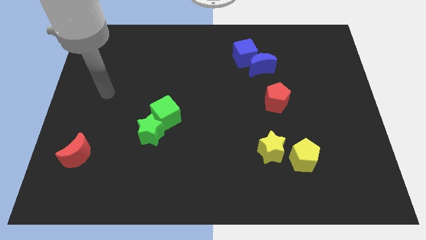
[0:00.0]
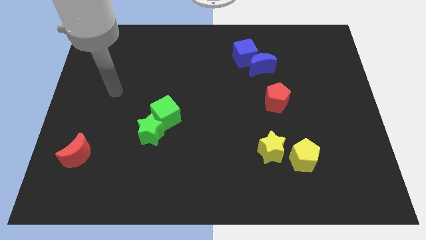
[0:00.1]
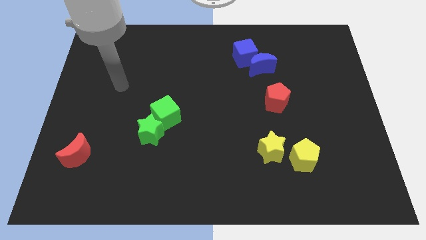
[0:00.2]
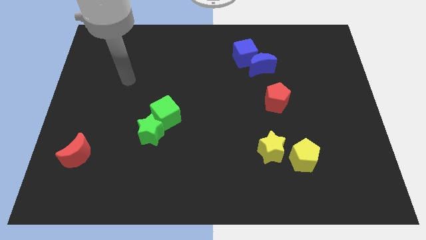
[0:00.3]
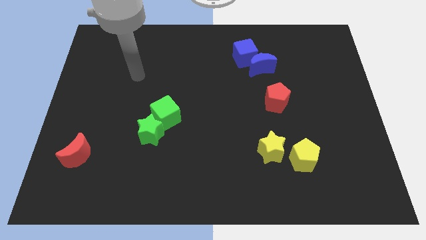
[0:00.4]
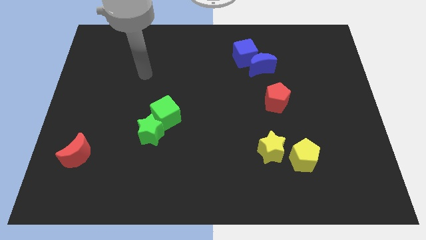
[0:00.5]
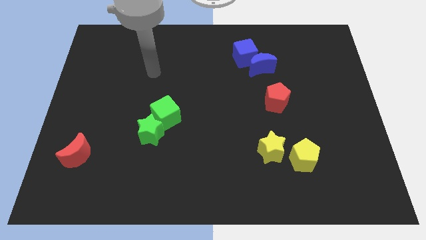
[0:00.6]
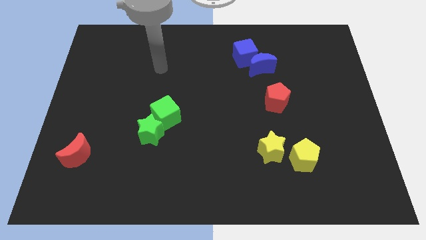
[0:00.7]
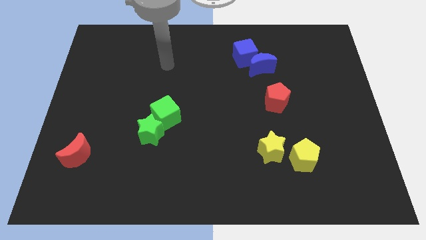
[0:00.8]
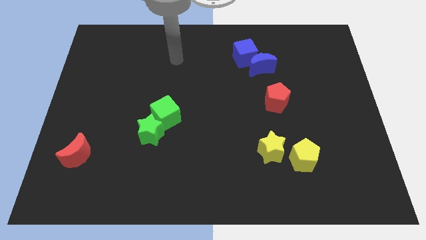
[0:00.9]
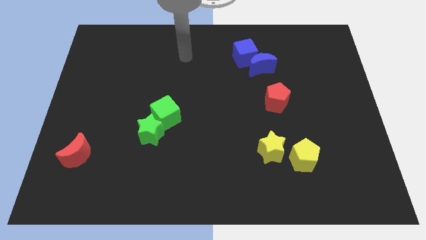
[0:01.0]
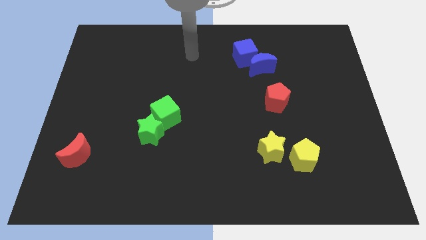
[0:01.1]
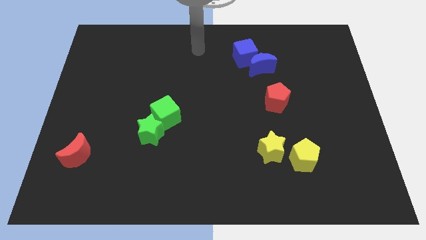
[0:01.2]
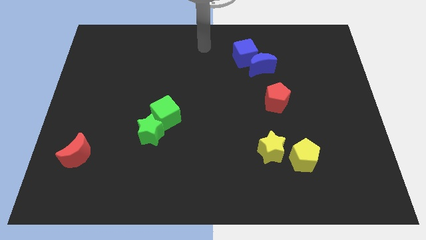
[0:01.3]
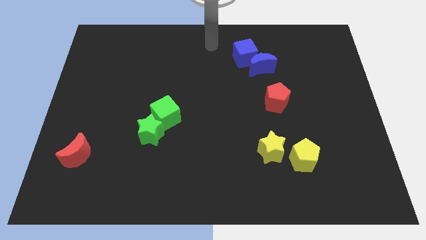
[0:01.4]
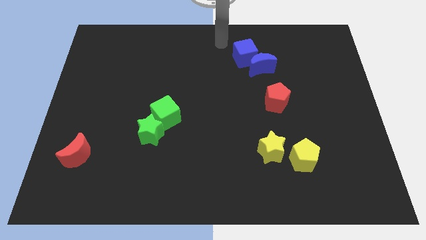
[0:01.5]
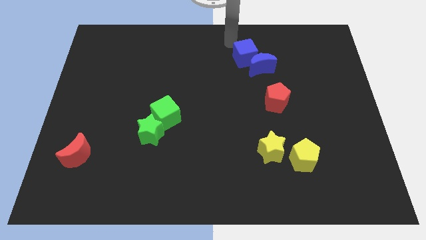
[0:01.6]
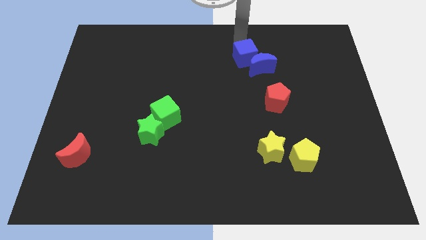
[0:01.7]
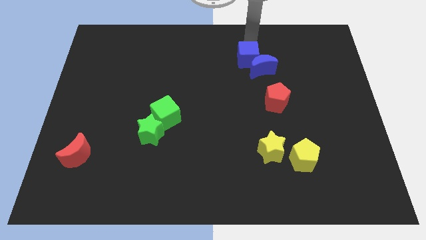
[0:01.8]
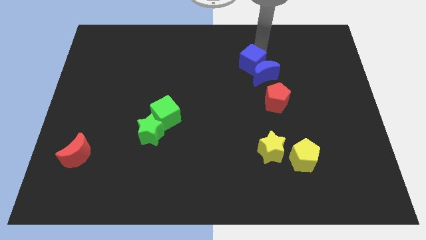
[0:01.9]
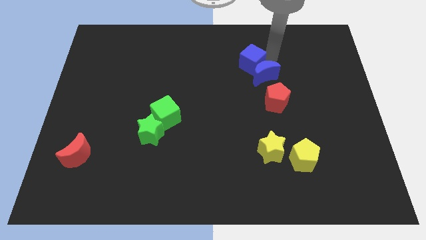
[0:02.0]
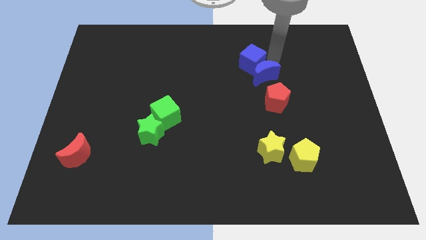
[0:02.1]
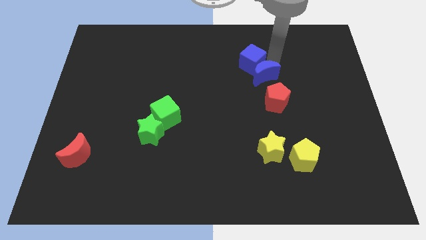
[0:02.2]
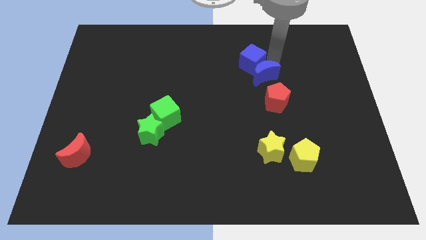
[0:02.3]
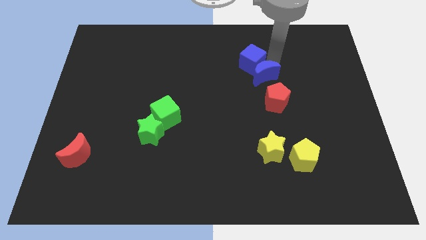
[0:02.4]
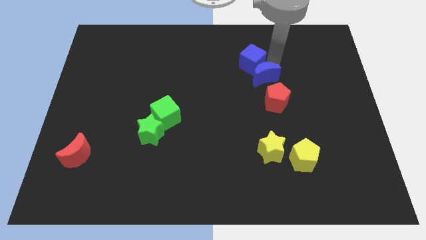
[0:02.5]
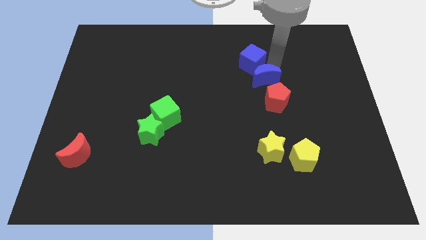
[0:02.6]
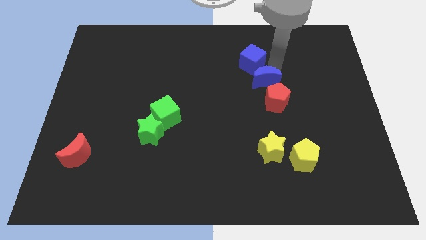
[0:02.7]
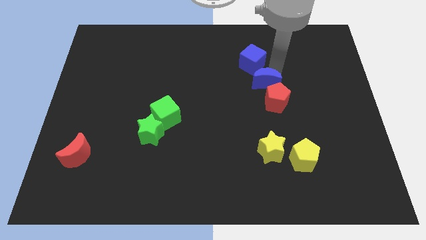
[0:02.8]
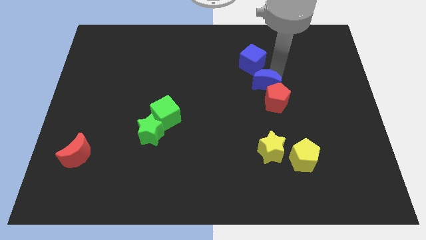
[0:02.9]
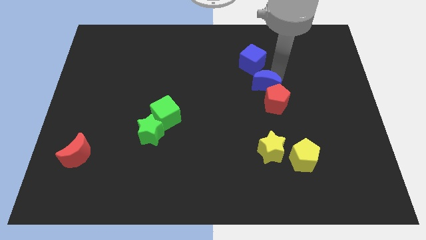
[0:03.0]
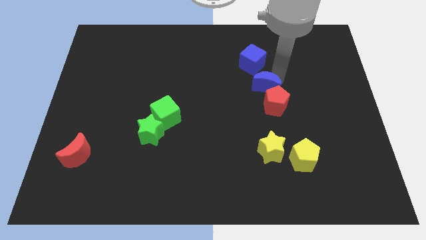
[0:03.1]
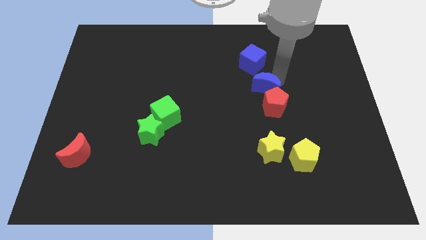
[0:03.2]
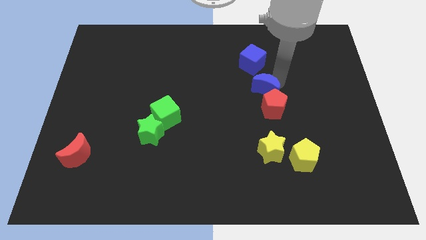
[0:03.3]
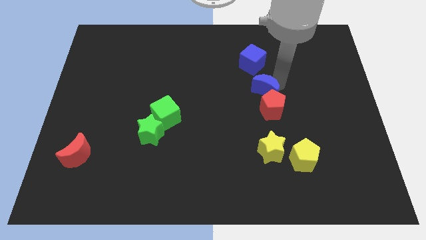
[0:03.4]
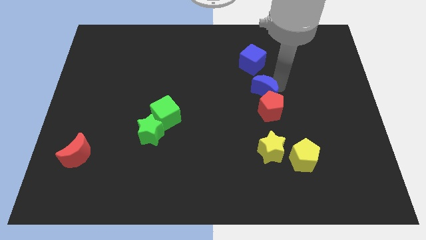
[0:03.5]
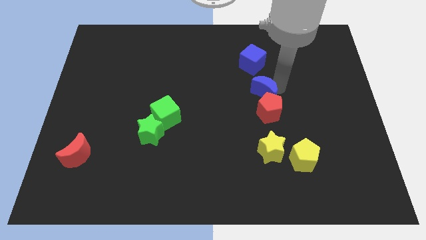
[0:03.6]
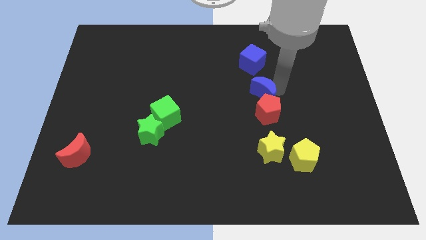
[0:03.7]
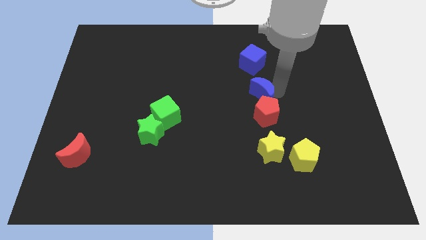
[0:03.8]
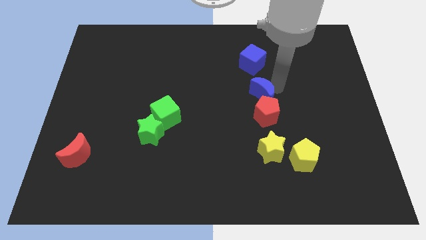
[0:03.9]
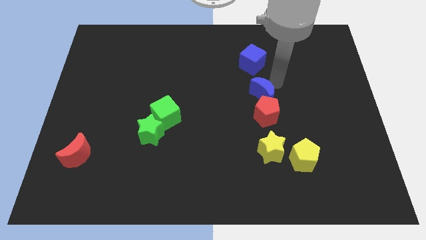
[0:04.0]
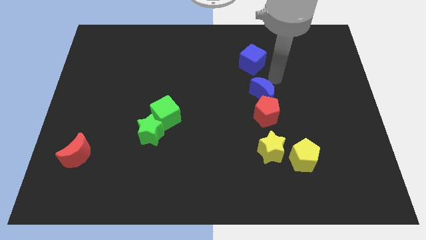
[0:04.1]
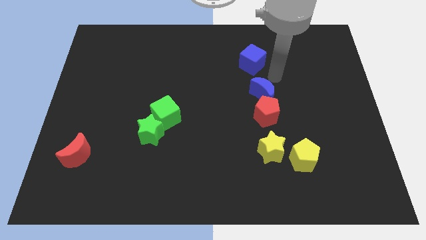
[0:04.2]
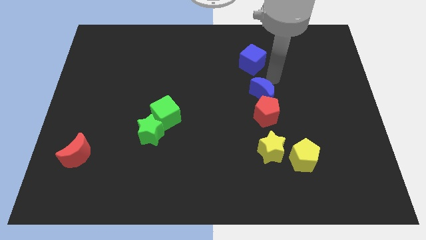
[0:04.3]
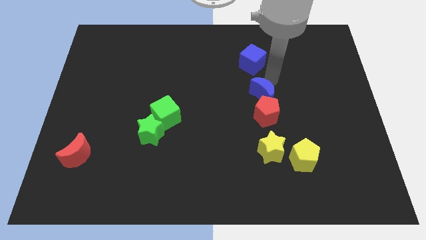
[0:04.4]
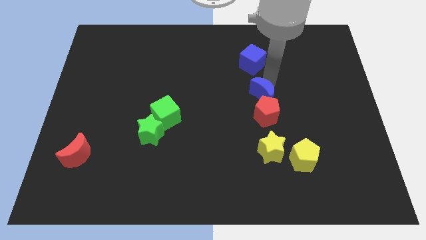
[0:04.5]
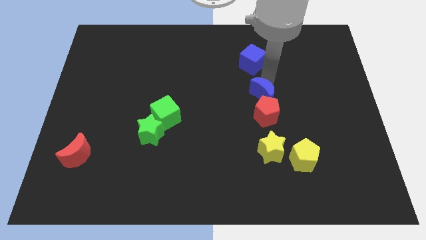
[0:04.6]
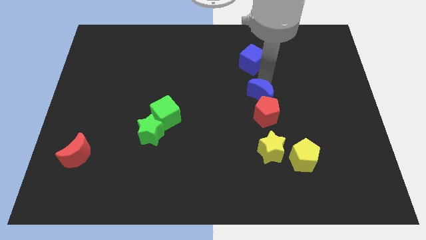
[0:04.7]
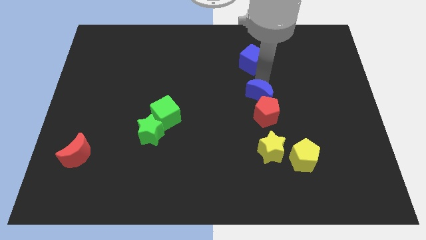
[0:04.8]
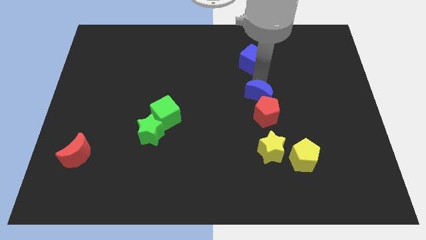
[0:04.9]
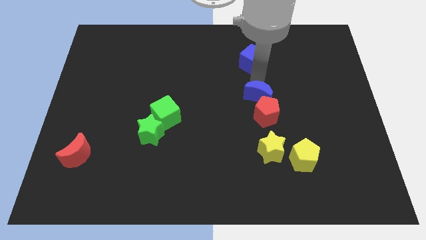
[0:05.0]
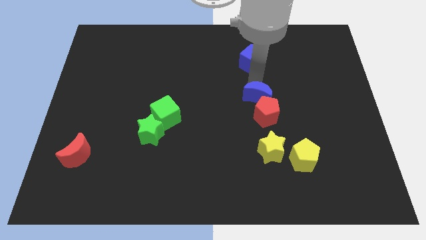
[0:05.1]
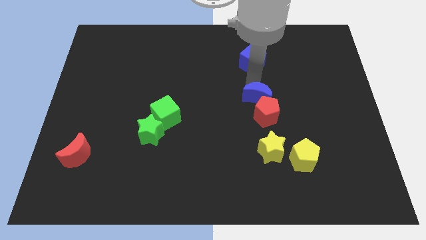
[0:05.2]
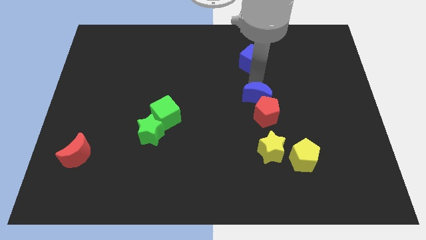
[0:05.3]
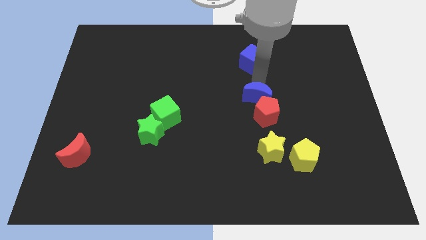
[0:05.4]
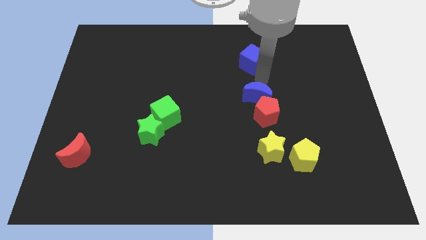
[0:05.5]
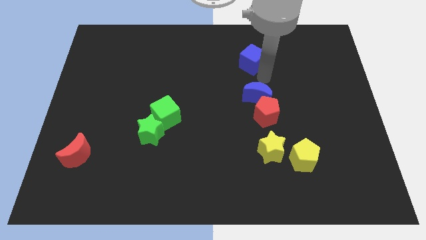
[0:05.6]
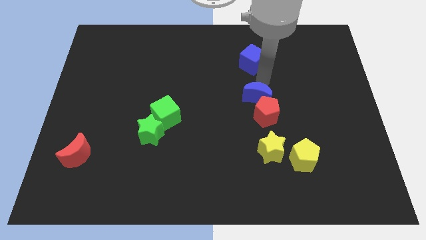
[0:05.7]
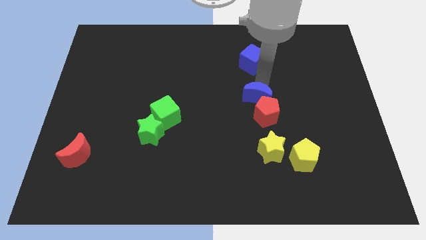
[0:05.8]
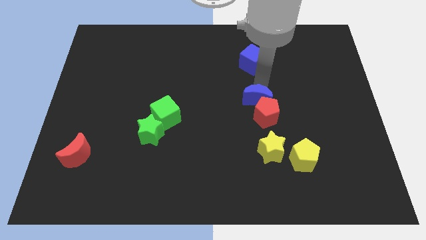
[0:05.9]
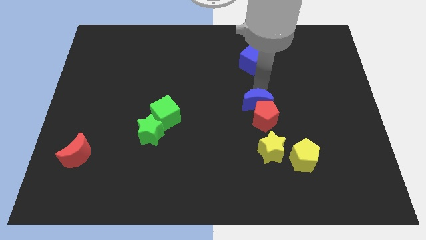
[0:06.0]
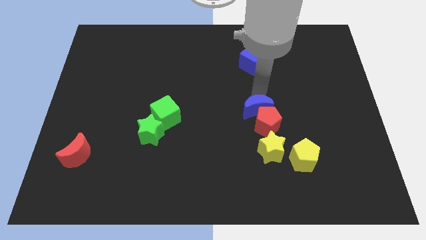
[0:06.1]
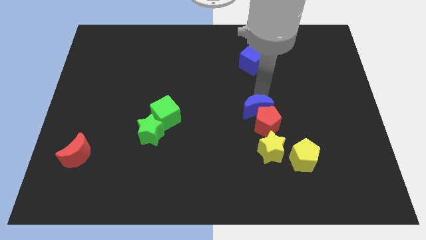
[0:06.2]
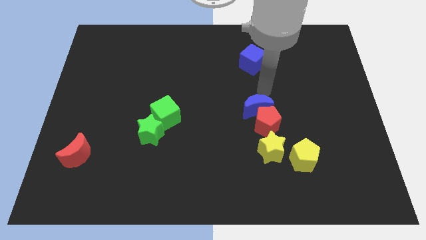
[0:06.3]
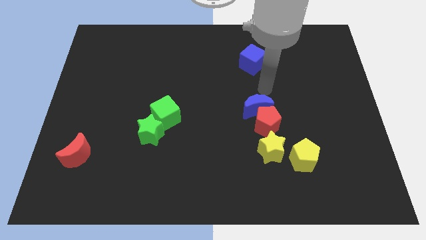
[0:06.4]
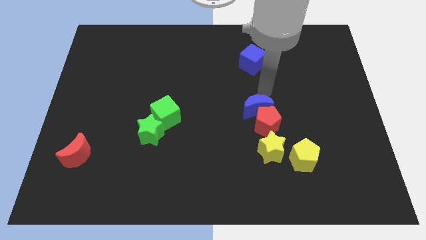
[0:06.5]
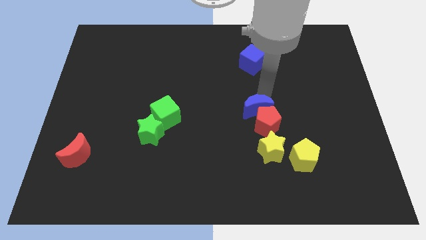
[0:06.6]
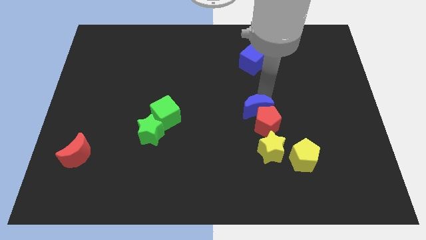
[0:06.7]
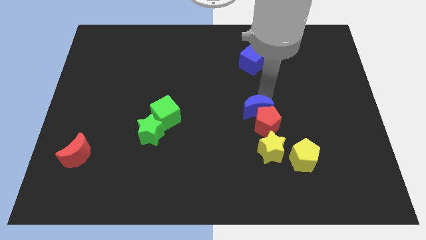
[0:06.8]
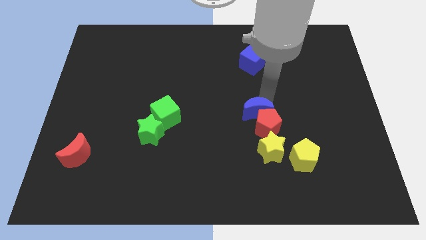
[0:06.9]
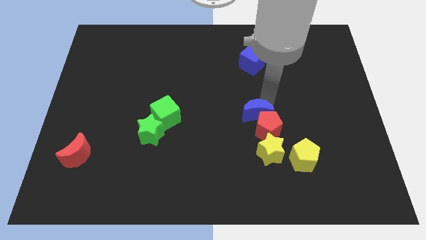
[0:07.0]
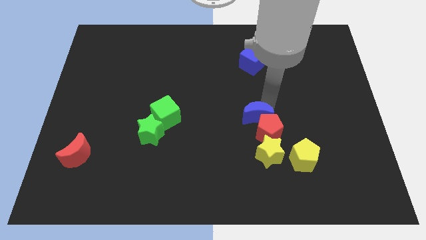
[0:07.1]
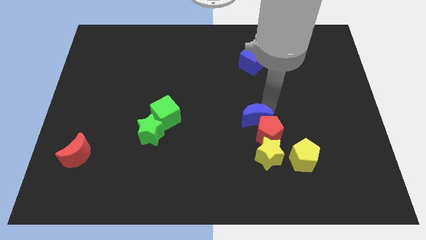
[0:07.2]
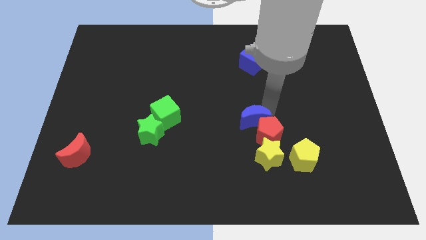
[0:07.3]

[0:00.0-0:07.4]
move the blue moon diagonally up and to the left of the yellow star
